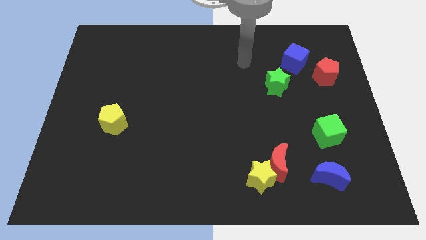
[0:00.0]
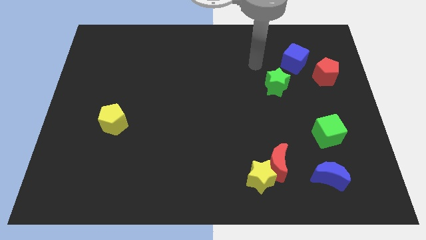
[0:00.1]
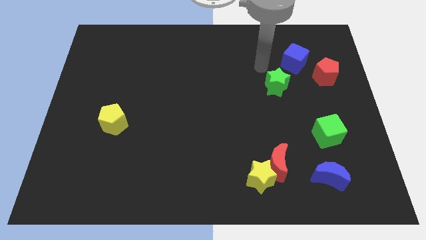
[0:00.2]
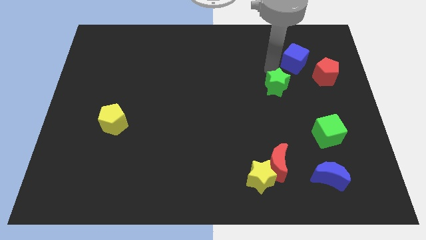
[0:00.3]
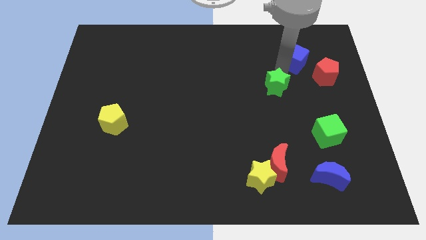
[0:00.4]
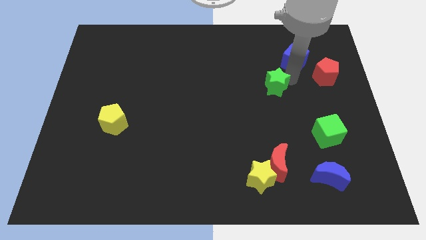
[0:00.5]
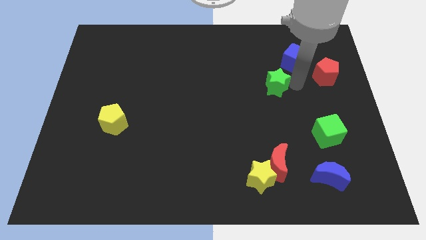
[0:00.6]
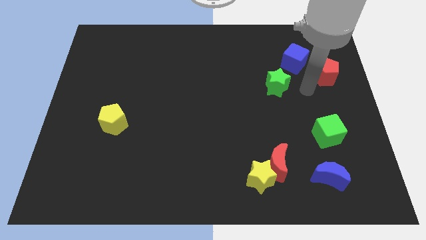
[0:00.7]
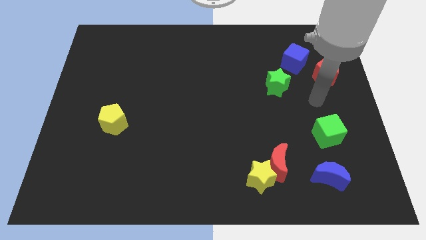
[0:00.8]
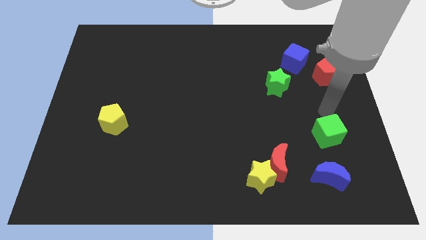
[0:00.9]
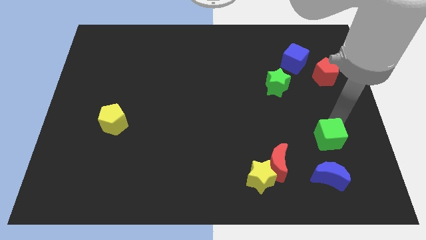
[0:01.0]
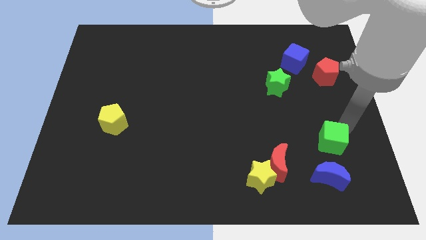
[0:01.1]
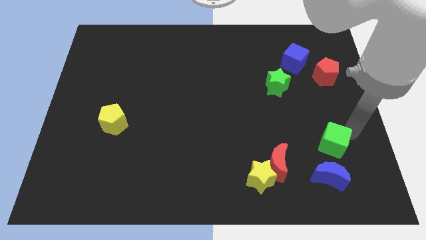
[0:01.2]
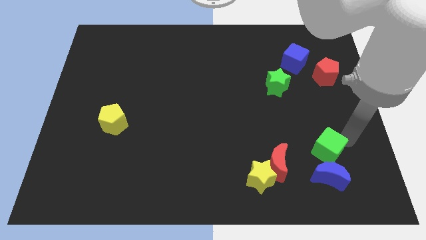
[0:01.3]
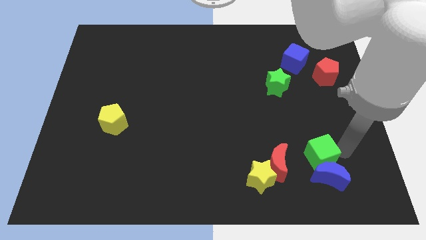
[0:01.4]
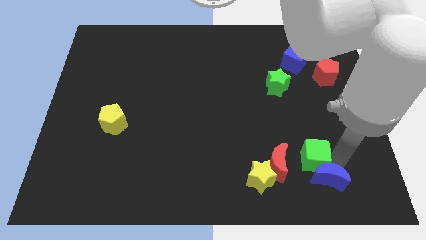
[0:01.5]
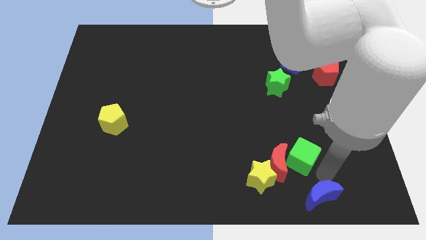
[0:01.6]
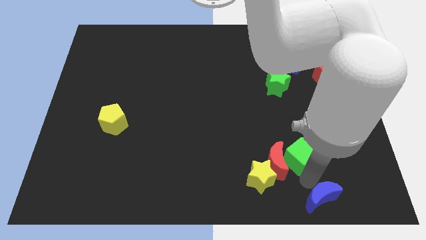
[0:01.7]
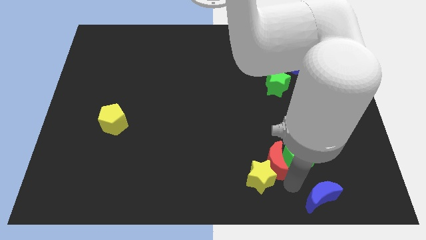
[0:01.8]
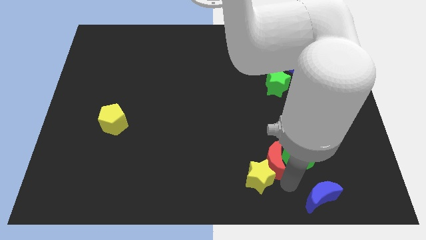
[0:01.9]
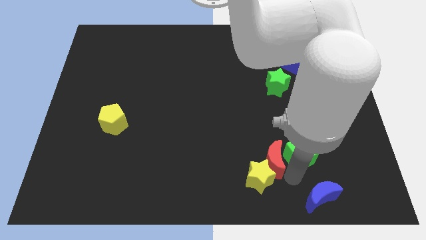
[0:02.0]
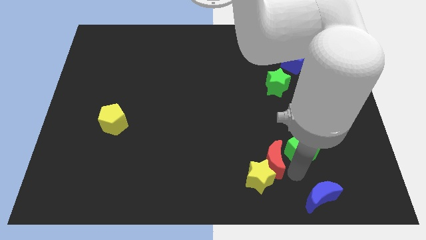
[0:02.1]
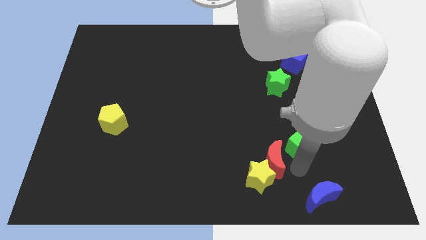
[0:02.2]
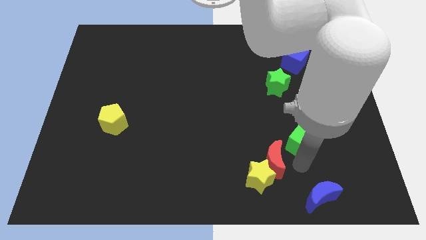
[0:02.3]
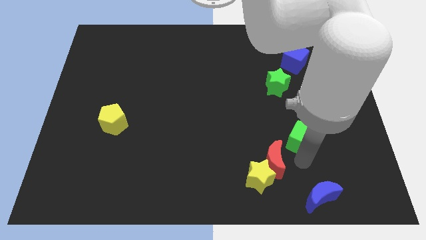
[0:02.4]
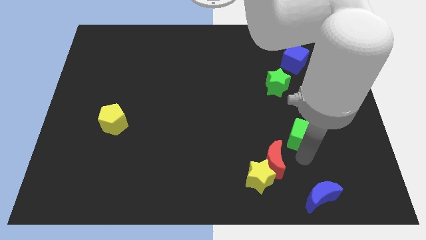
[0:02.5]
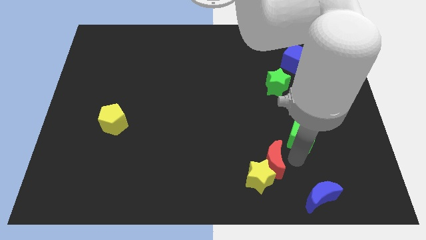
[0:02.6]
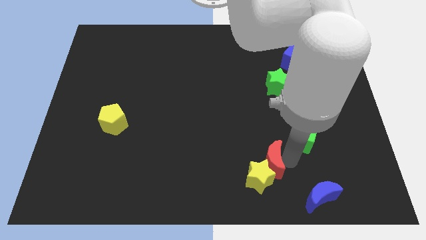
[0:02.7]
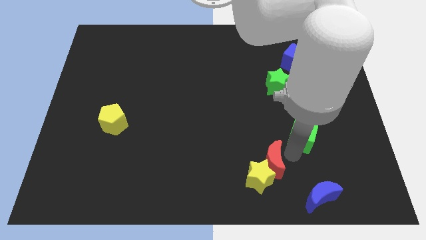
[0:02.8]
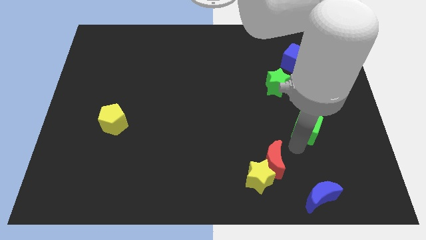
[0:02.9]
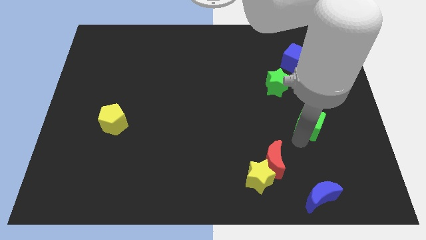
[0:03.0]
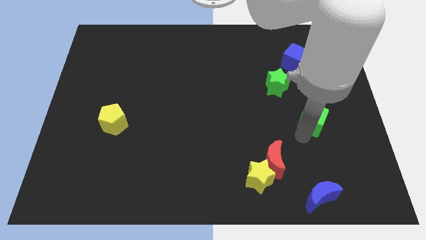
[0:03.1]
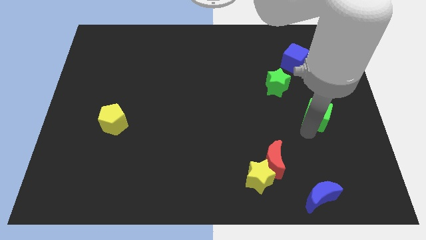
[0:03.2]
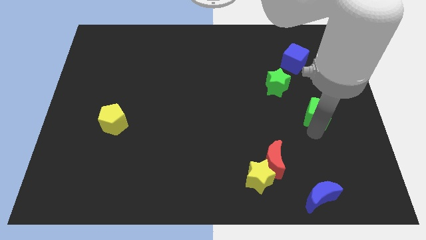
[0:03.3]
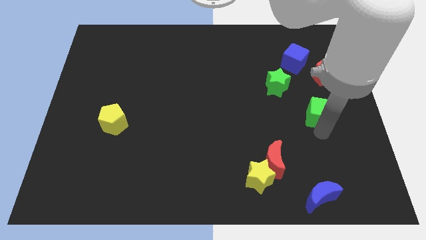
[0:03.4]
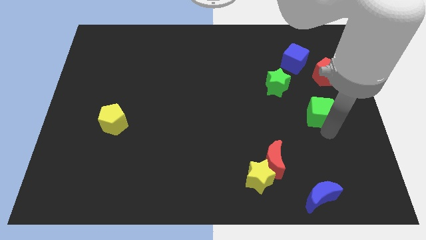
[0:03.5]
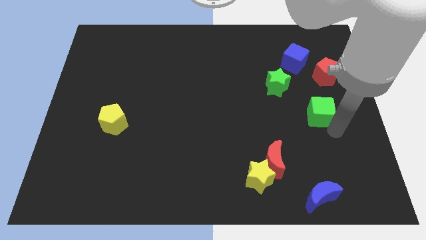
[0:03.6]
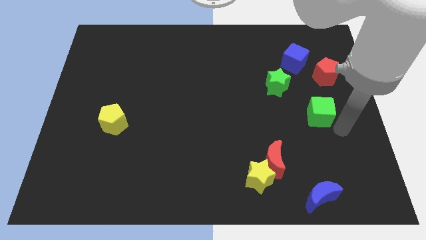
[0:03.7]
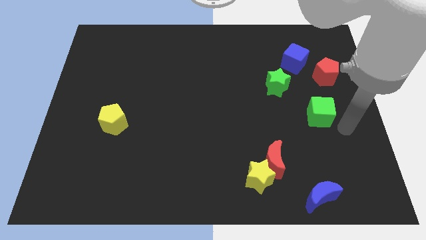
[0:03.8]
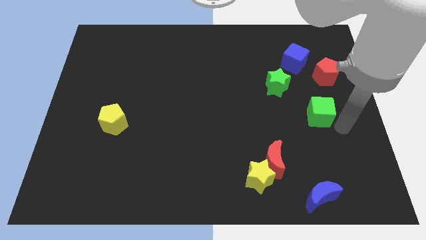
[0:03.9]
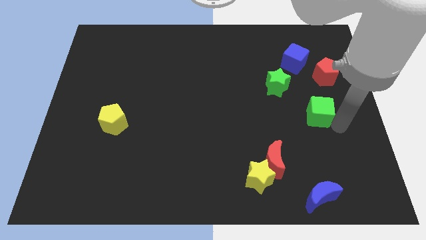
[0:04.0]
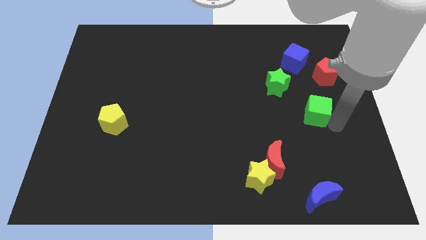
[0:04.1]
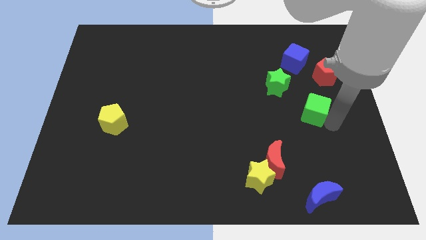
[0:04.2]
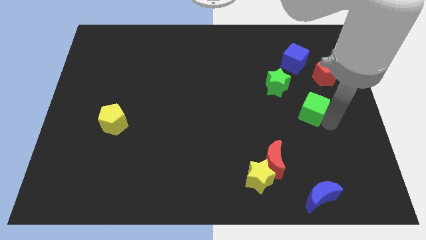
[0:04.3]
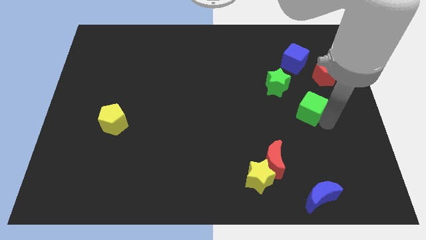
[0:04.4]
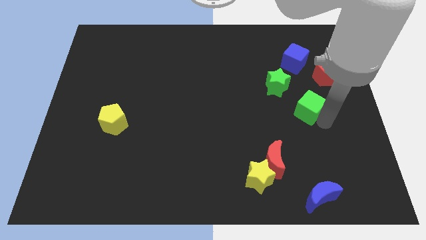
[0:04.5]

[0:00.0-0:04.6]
push the green cube a bit upwards and to the left diagonally

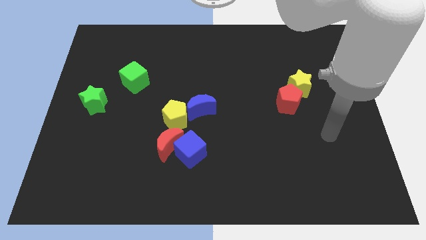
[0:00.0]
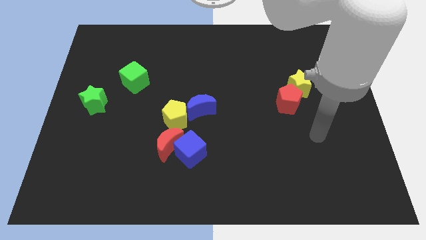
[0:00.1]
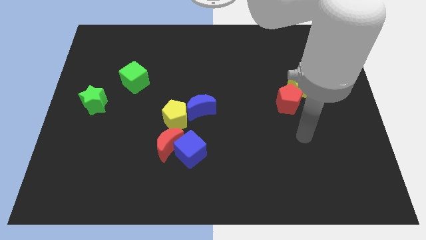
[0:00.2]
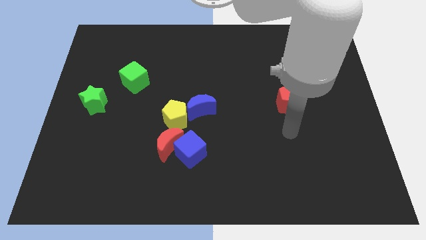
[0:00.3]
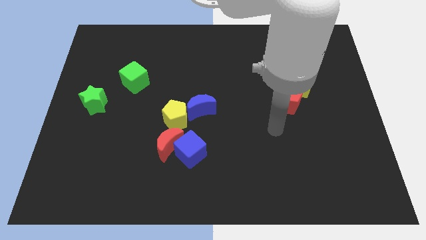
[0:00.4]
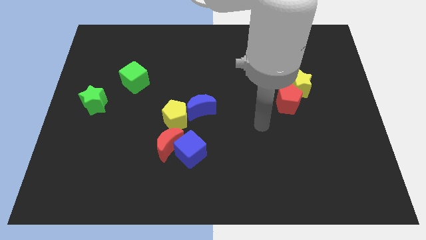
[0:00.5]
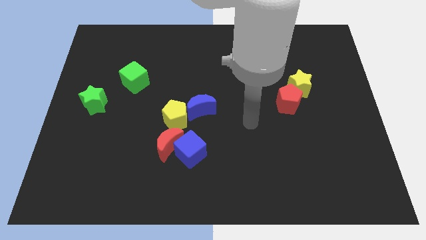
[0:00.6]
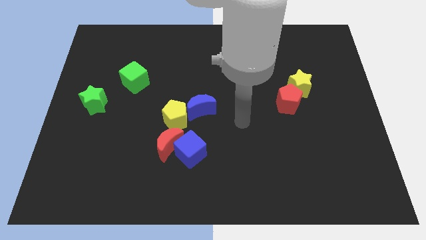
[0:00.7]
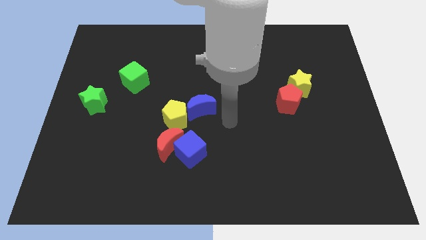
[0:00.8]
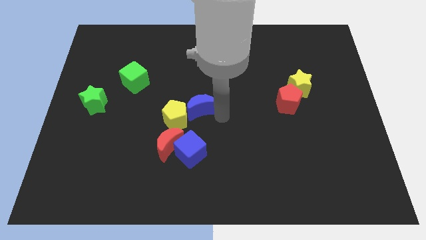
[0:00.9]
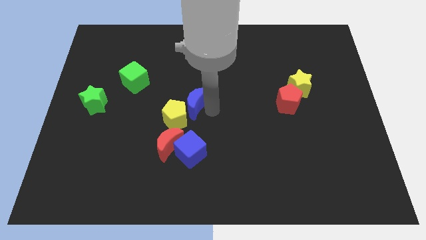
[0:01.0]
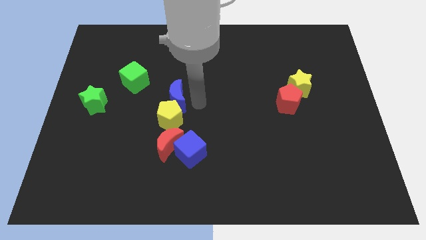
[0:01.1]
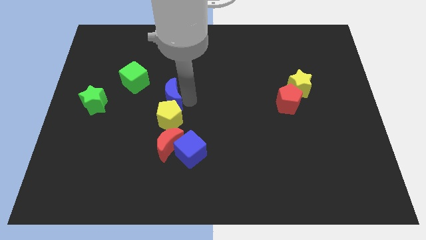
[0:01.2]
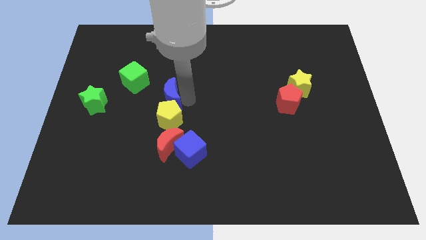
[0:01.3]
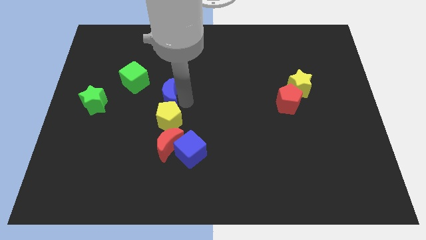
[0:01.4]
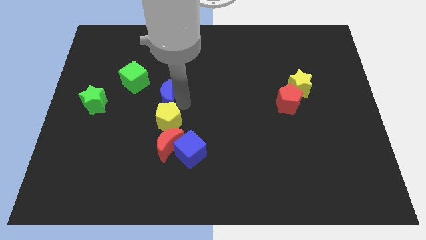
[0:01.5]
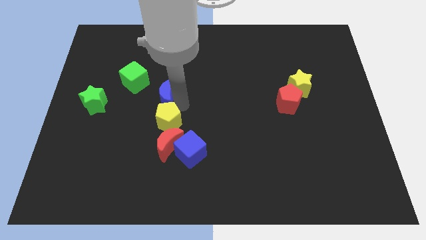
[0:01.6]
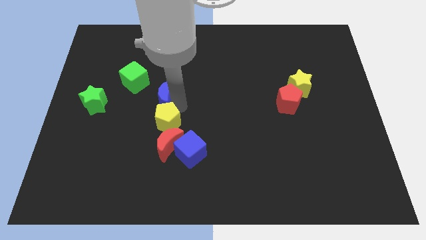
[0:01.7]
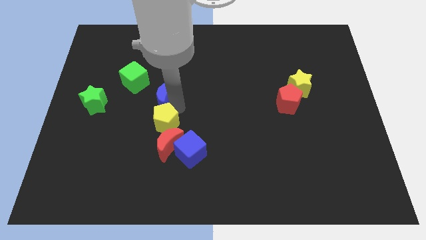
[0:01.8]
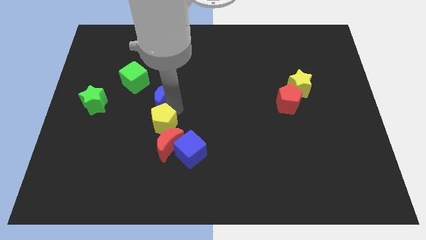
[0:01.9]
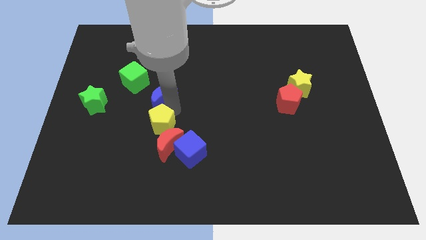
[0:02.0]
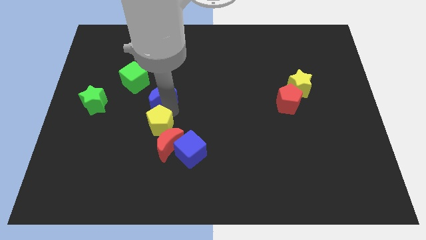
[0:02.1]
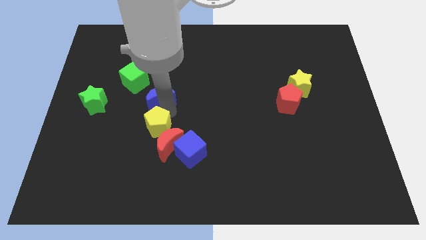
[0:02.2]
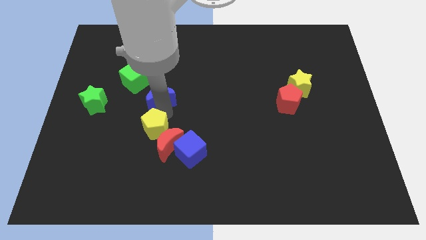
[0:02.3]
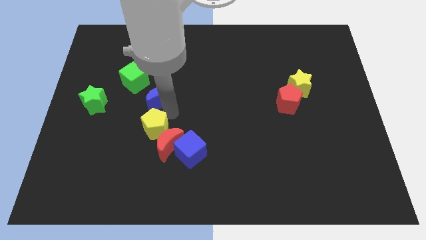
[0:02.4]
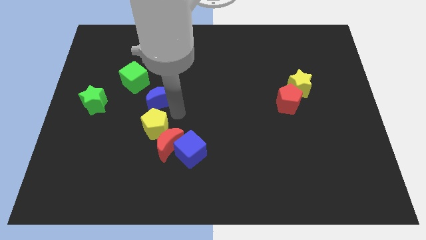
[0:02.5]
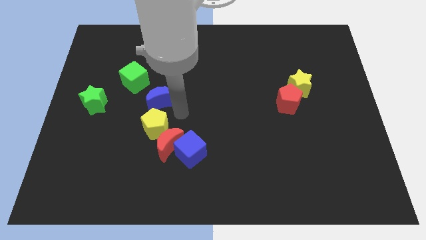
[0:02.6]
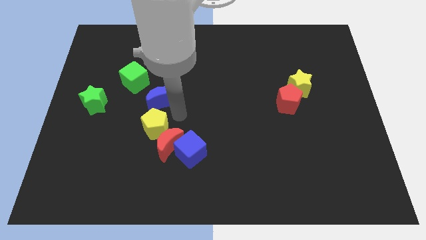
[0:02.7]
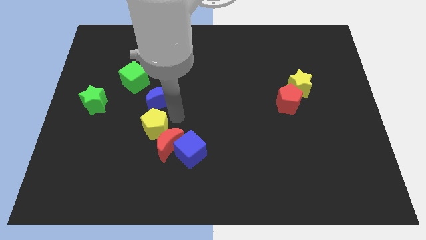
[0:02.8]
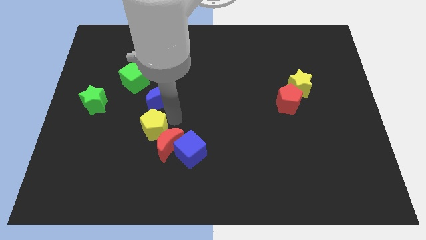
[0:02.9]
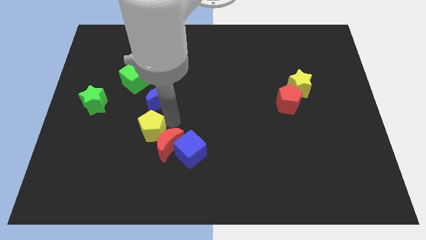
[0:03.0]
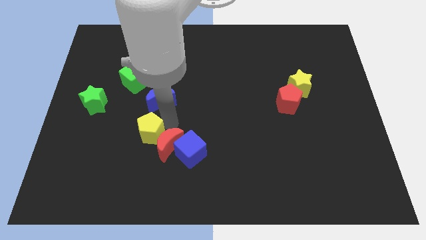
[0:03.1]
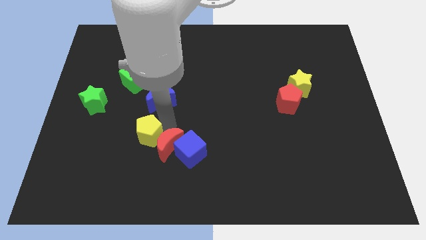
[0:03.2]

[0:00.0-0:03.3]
move the yellow pentagon somewhat downwards and then to the left

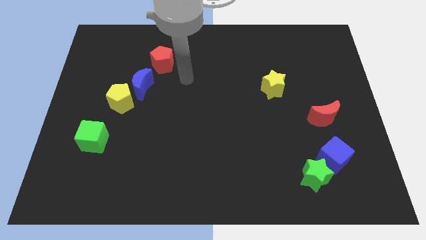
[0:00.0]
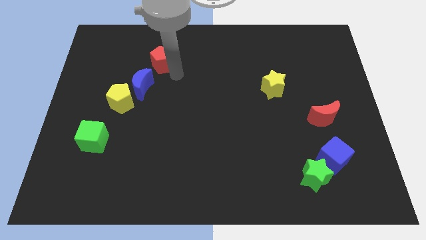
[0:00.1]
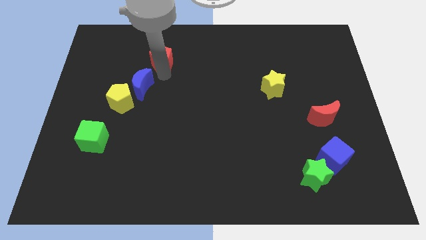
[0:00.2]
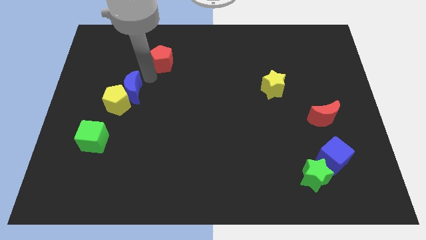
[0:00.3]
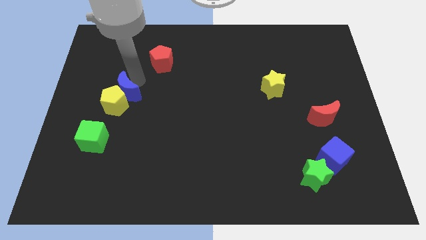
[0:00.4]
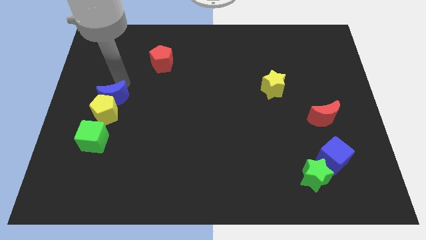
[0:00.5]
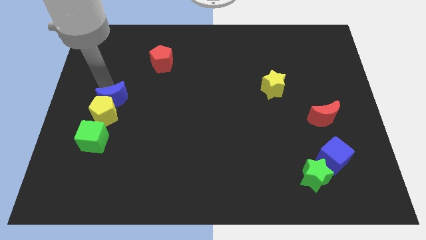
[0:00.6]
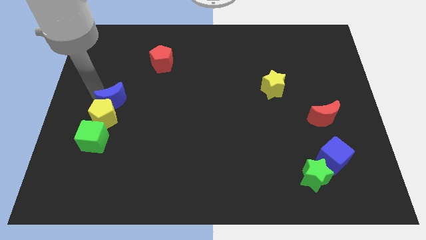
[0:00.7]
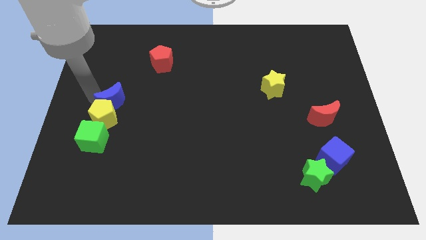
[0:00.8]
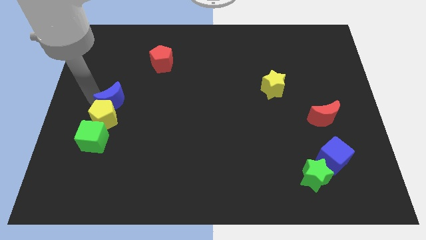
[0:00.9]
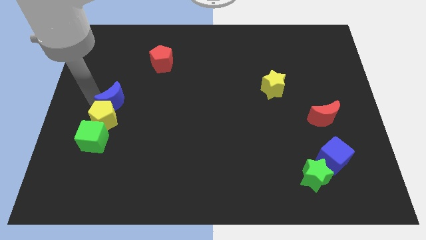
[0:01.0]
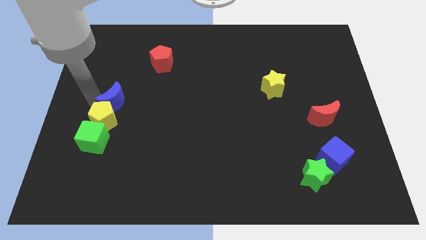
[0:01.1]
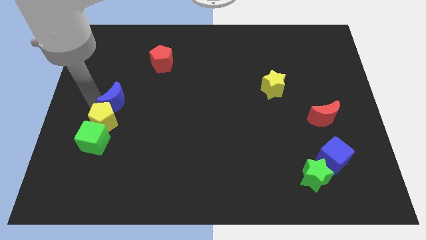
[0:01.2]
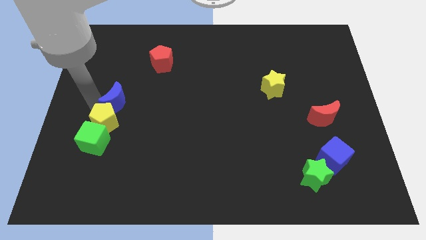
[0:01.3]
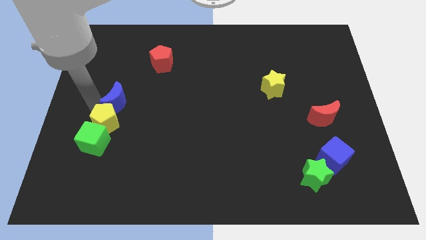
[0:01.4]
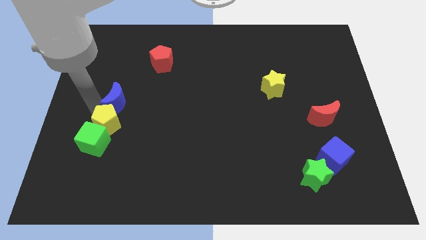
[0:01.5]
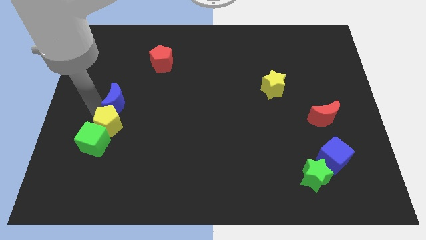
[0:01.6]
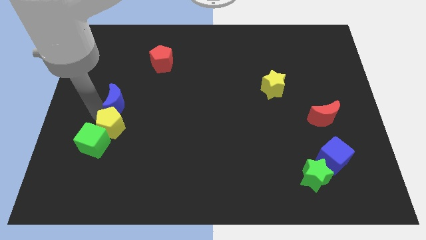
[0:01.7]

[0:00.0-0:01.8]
slightly move the yellow pentagon down
